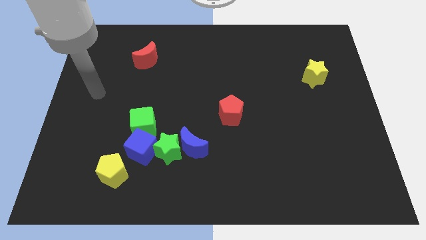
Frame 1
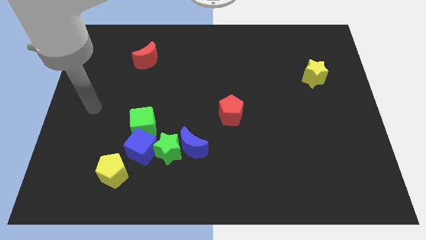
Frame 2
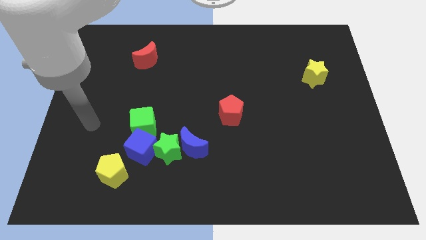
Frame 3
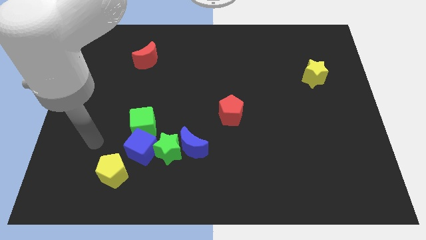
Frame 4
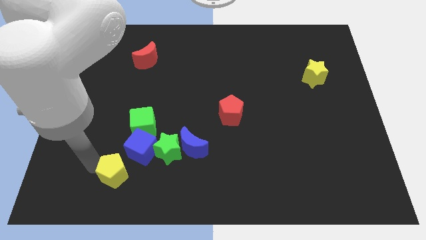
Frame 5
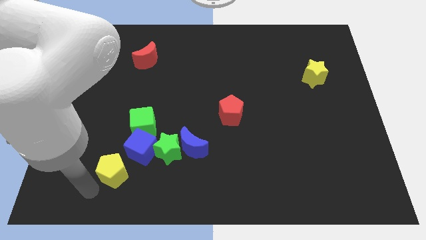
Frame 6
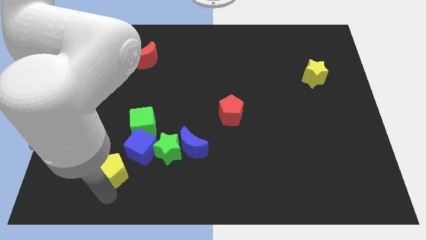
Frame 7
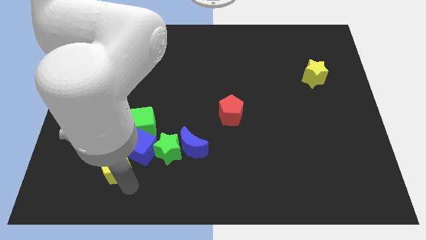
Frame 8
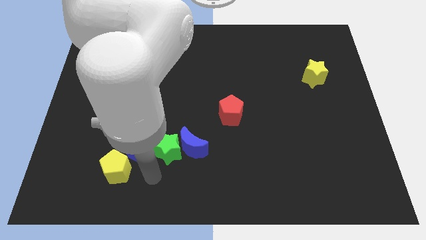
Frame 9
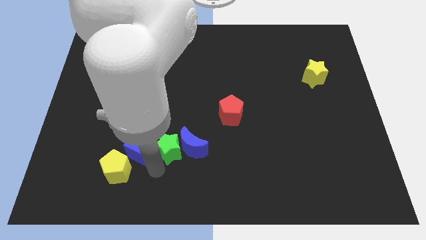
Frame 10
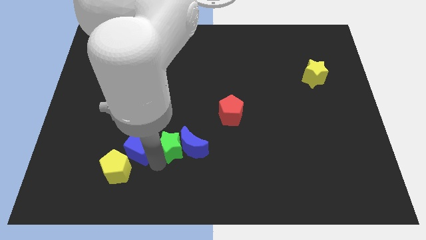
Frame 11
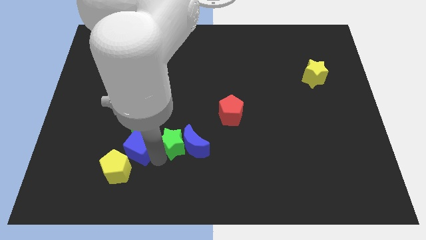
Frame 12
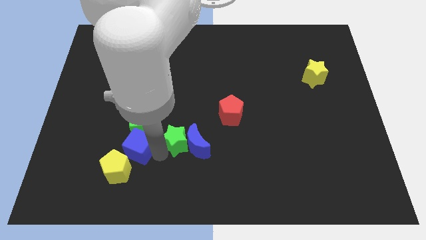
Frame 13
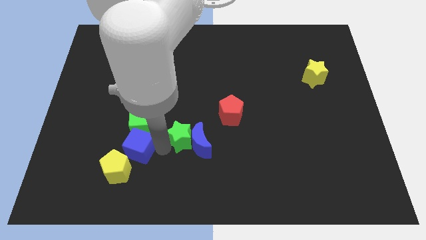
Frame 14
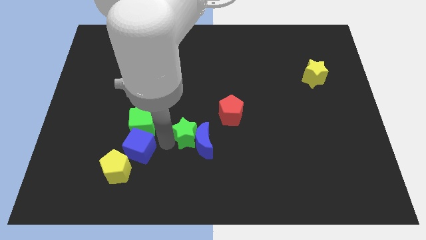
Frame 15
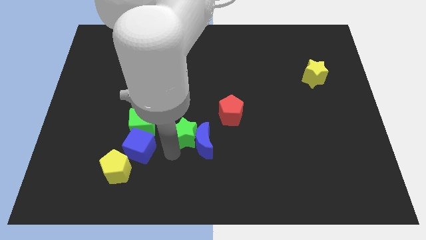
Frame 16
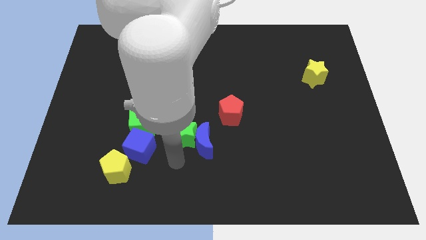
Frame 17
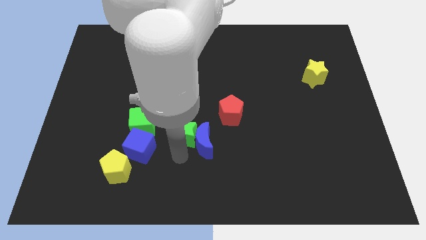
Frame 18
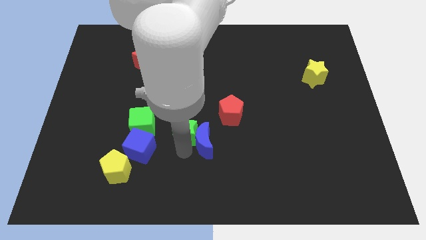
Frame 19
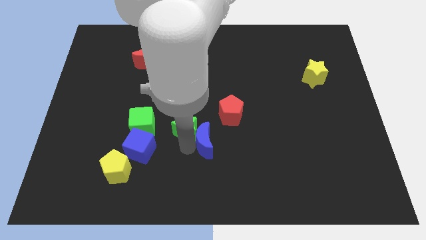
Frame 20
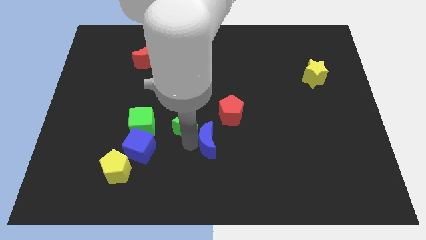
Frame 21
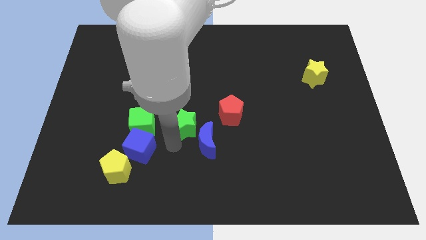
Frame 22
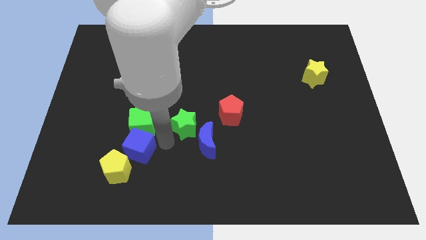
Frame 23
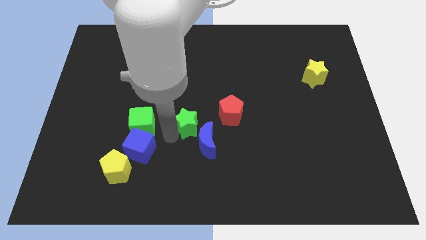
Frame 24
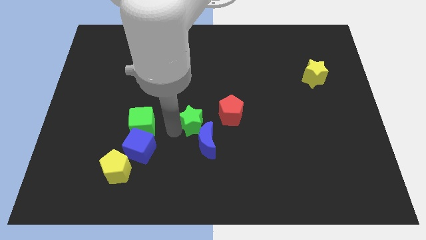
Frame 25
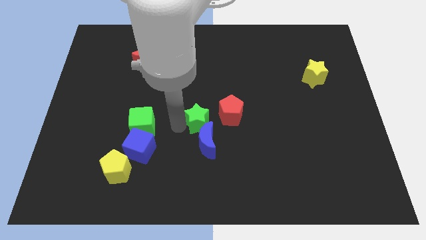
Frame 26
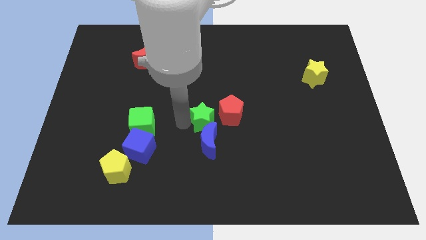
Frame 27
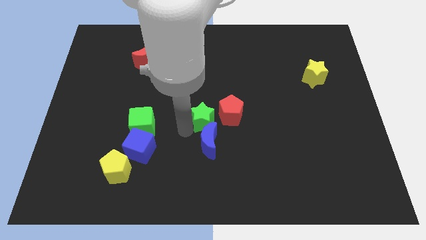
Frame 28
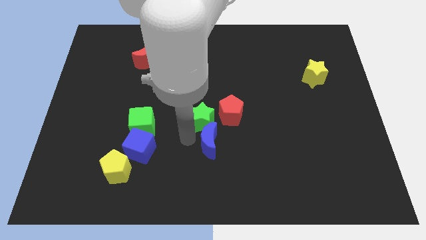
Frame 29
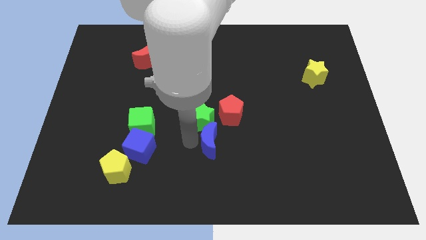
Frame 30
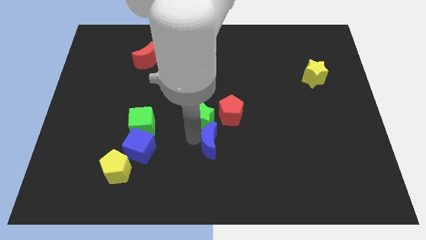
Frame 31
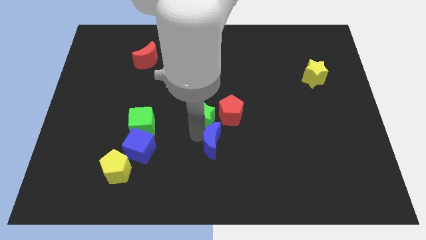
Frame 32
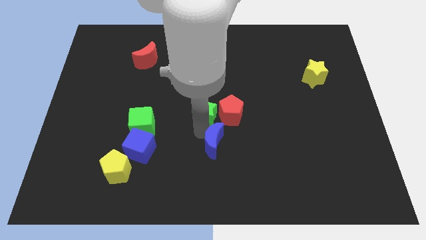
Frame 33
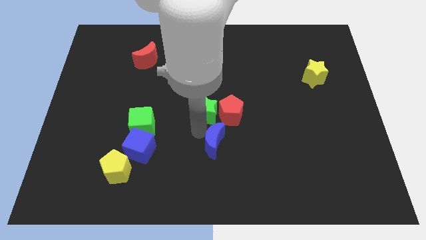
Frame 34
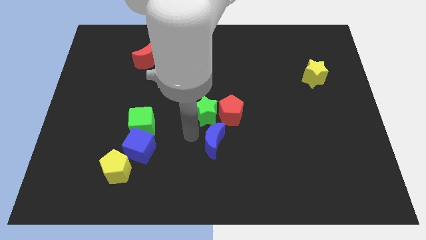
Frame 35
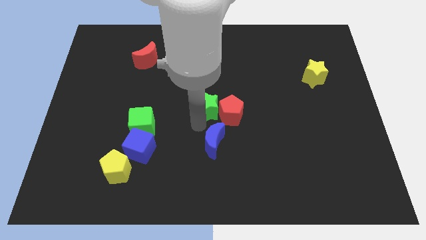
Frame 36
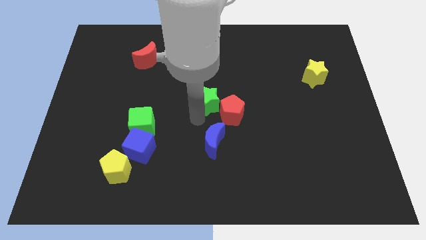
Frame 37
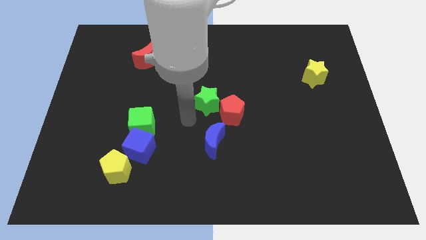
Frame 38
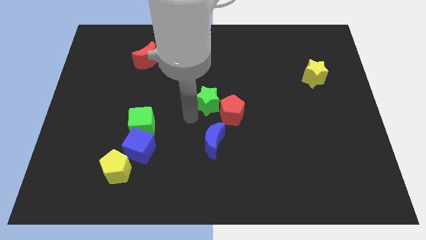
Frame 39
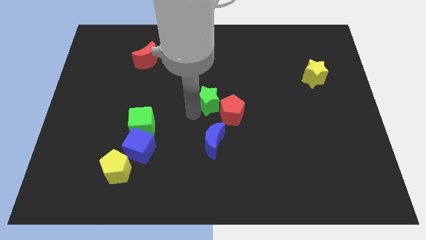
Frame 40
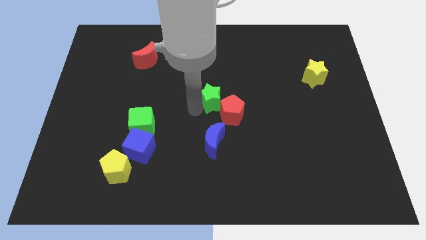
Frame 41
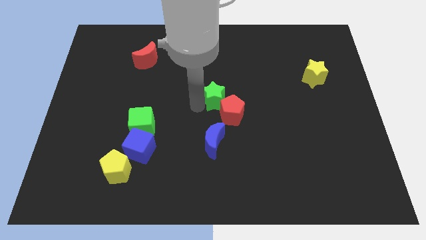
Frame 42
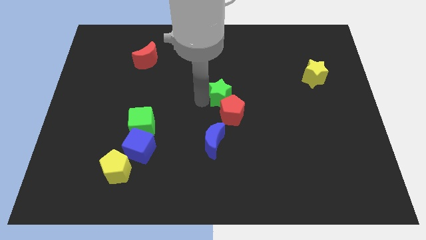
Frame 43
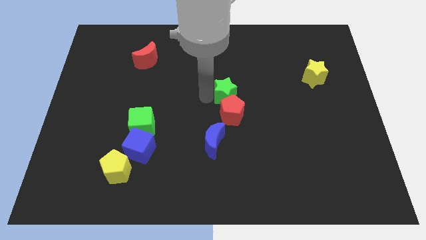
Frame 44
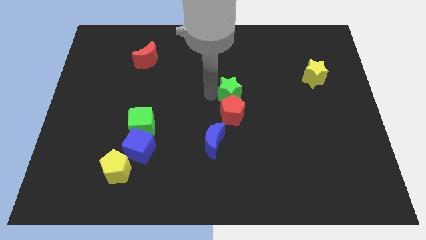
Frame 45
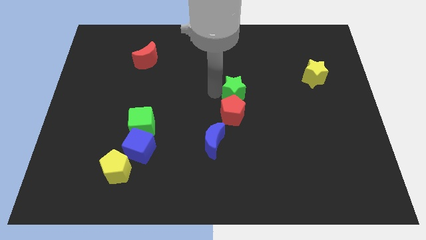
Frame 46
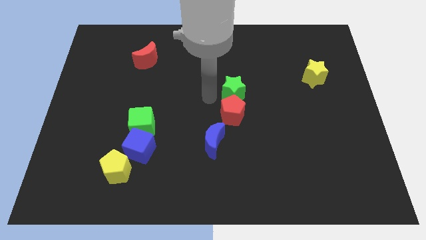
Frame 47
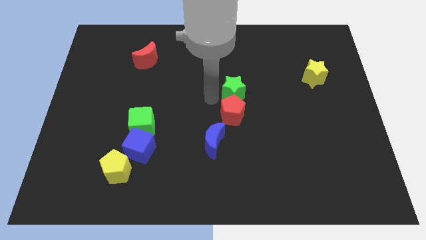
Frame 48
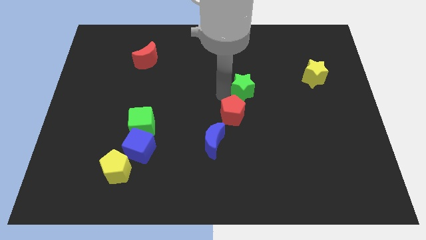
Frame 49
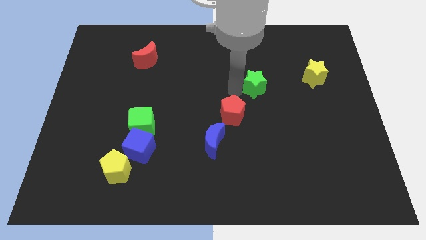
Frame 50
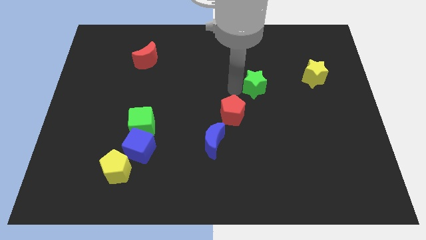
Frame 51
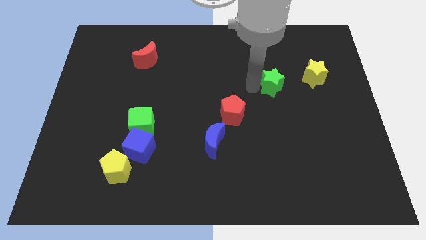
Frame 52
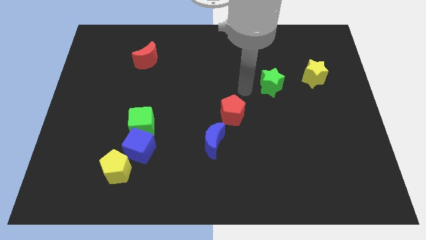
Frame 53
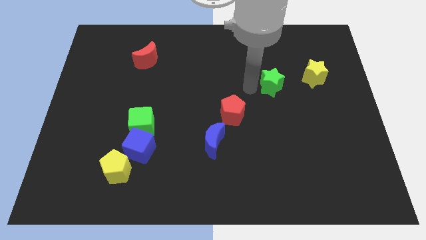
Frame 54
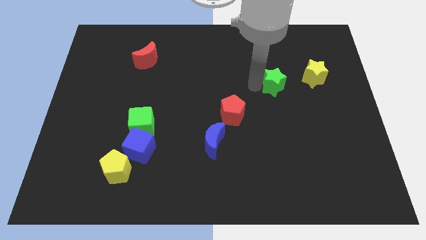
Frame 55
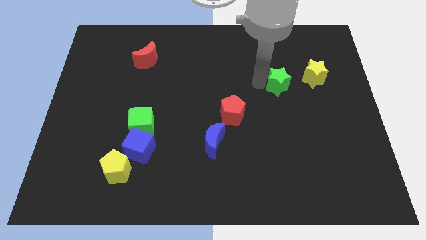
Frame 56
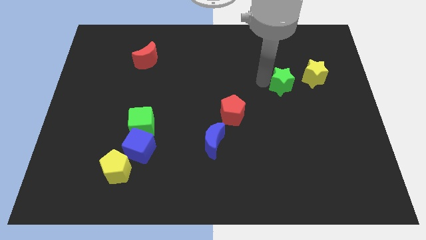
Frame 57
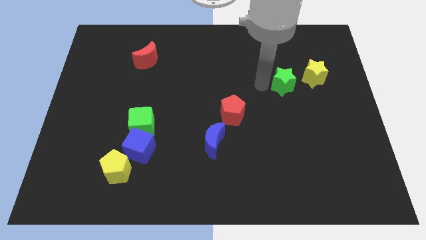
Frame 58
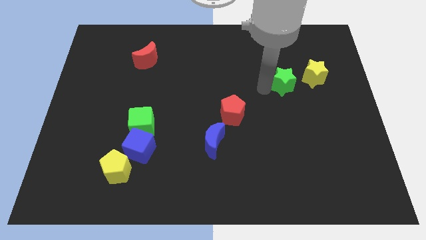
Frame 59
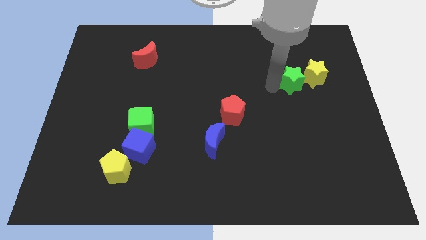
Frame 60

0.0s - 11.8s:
slide the green star towards the yellow star

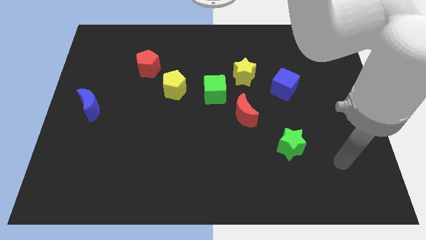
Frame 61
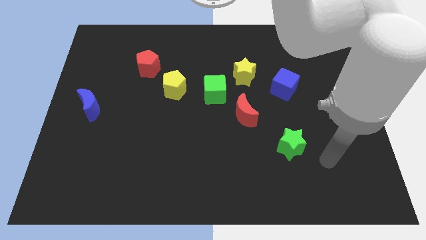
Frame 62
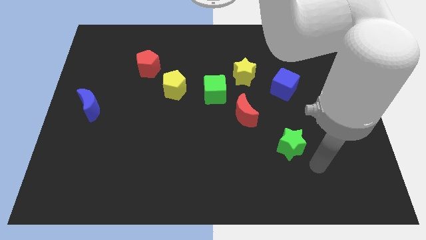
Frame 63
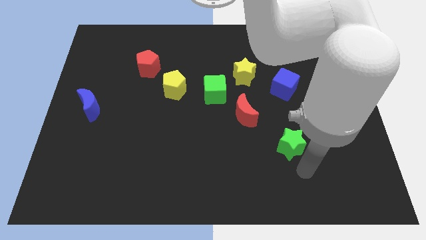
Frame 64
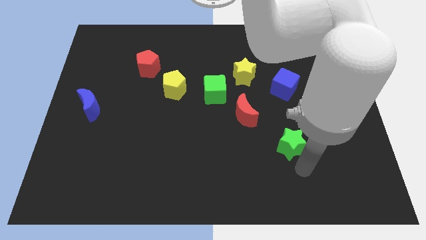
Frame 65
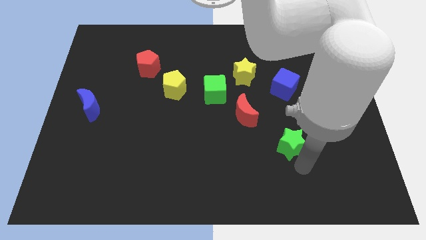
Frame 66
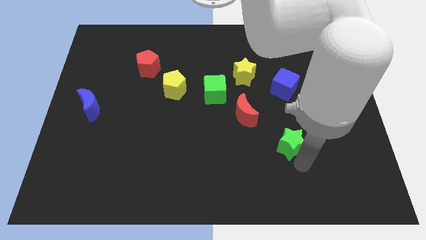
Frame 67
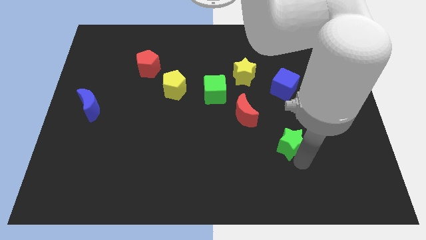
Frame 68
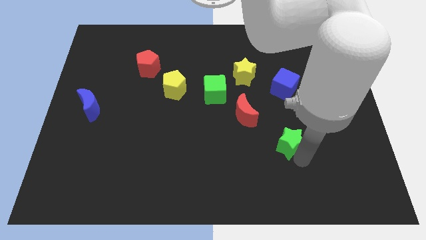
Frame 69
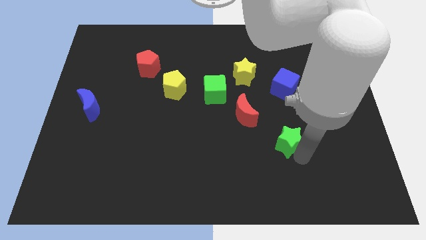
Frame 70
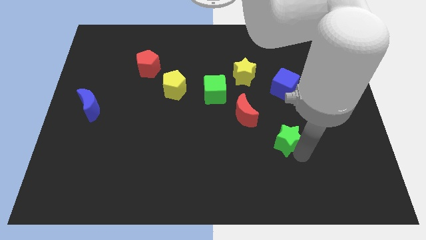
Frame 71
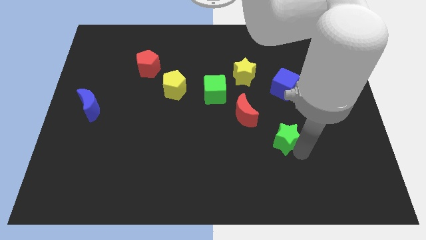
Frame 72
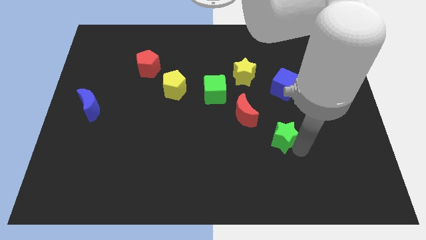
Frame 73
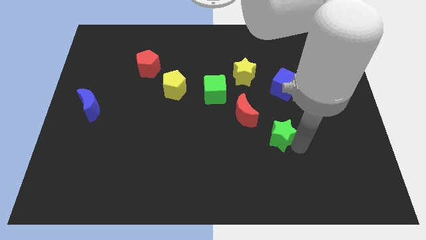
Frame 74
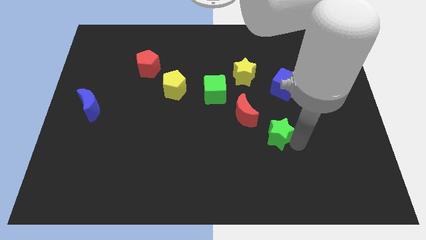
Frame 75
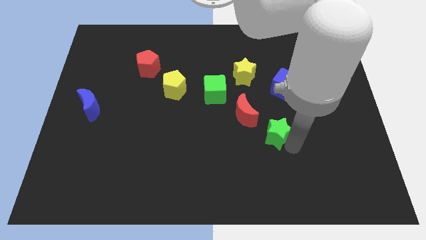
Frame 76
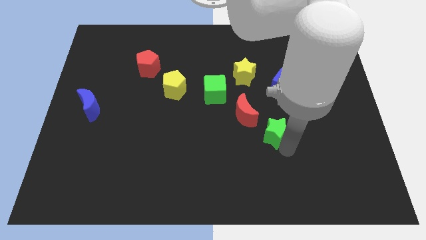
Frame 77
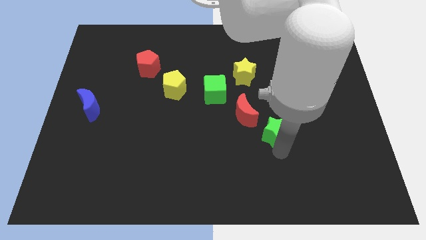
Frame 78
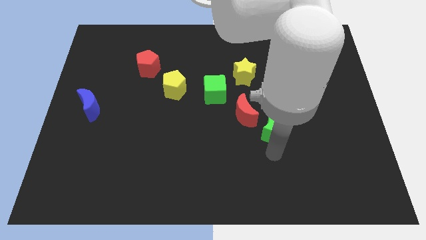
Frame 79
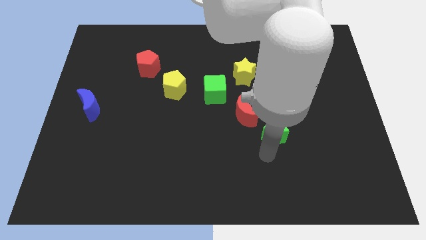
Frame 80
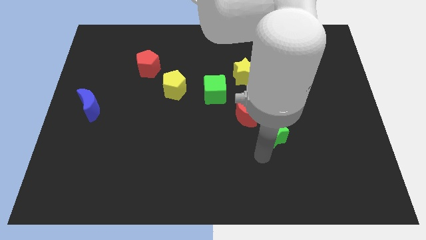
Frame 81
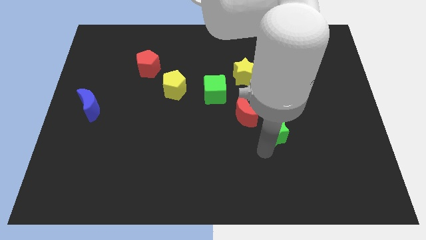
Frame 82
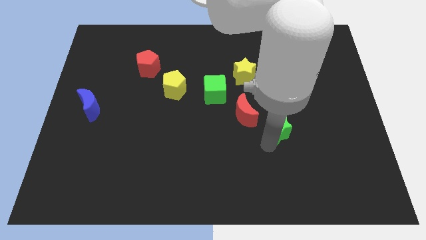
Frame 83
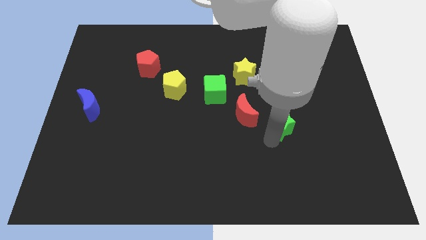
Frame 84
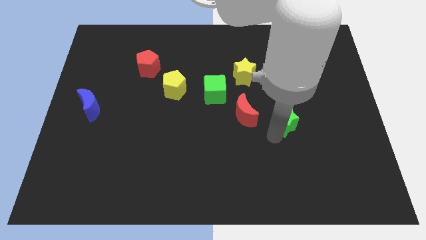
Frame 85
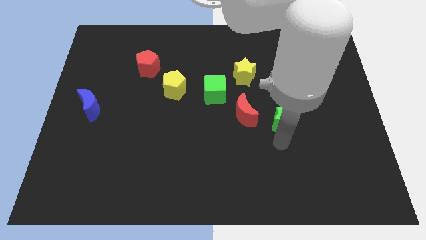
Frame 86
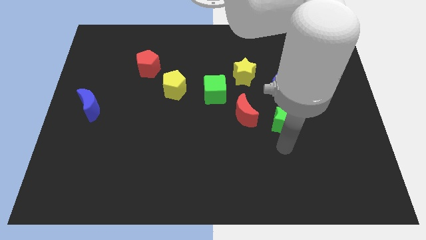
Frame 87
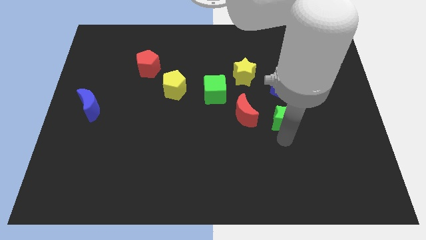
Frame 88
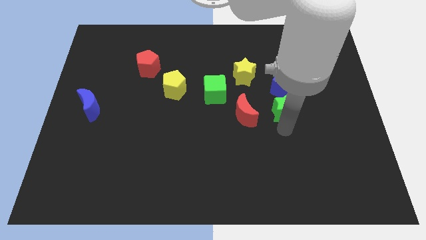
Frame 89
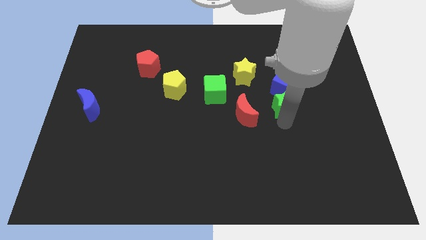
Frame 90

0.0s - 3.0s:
push the green star close to the blue cube
